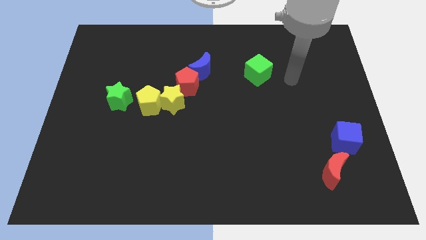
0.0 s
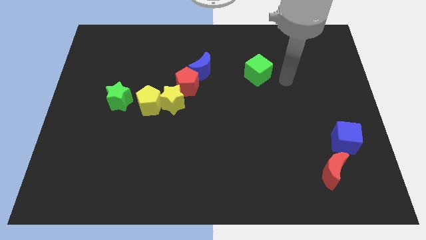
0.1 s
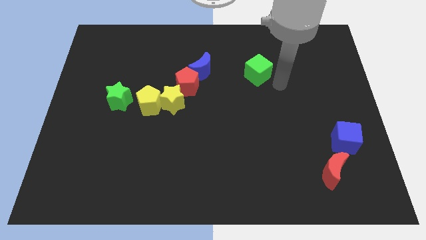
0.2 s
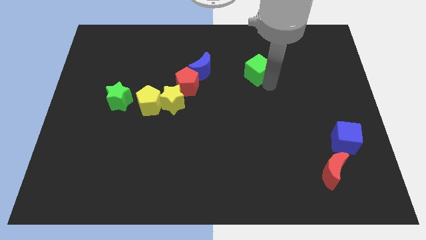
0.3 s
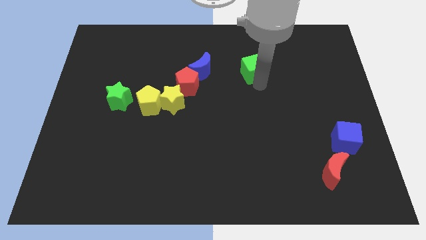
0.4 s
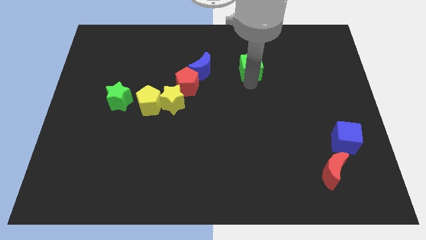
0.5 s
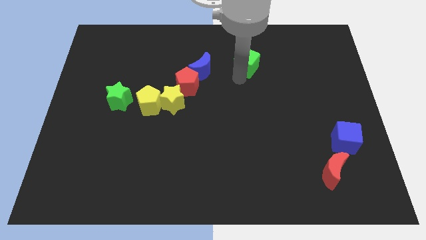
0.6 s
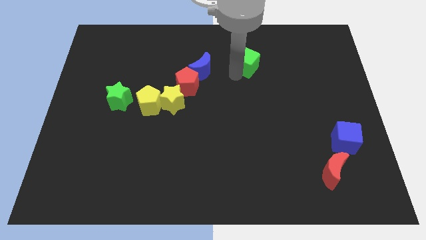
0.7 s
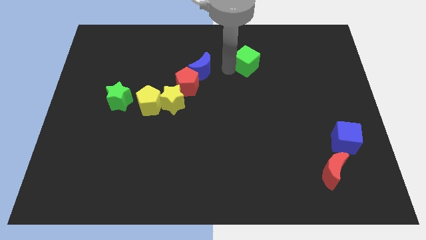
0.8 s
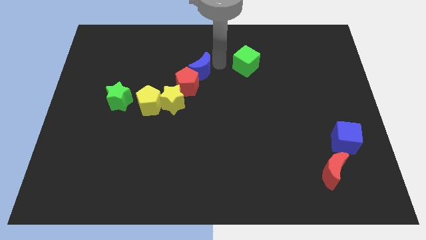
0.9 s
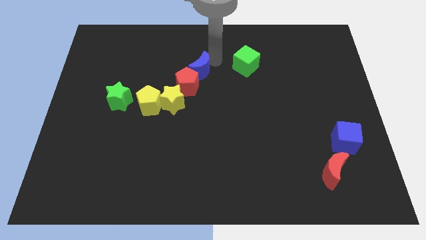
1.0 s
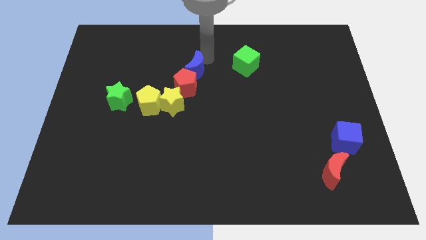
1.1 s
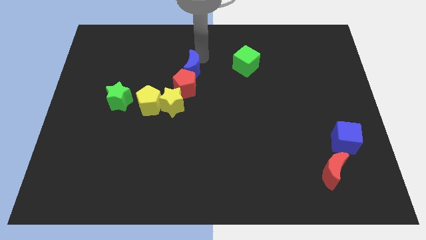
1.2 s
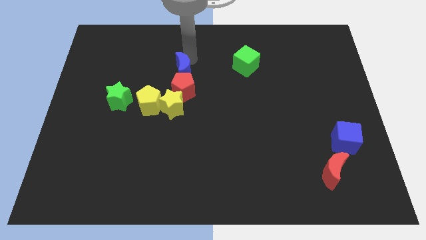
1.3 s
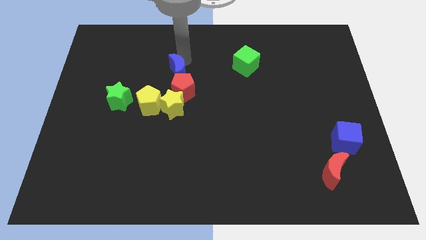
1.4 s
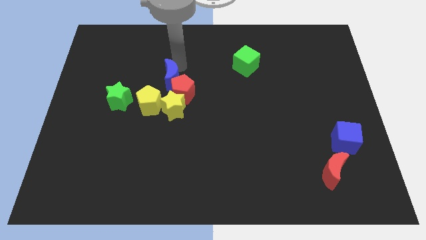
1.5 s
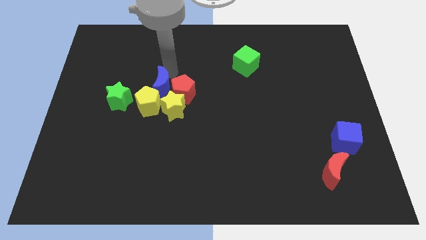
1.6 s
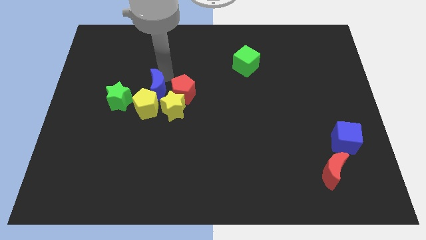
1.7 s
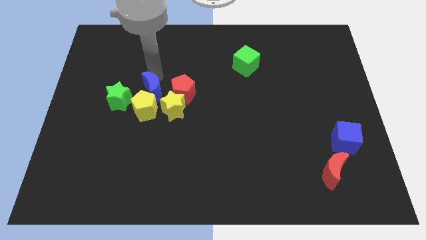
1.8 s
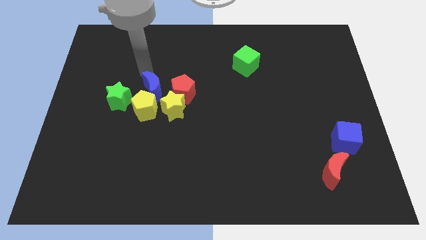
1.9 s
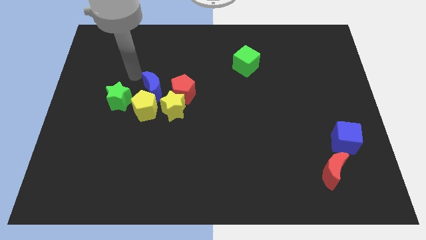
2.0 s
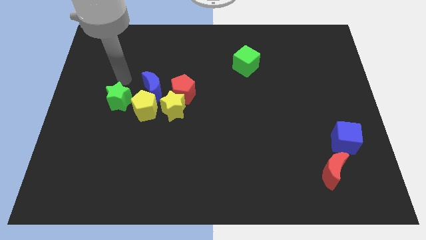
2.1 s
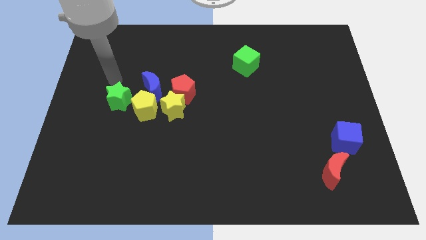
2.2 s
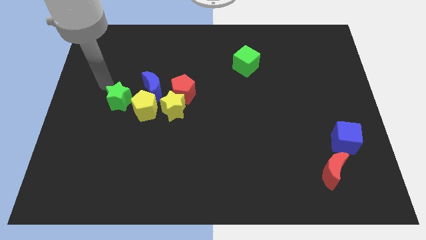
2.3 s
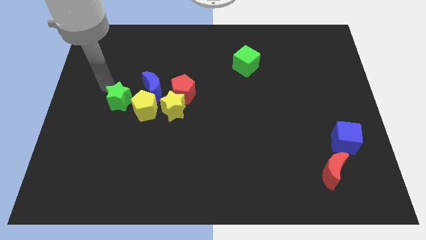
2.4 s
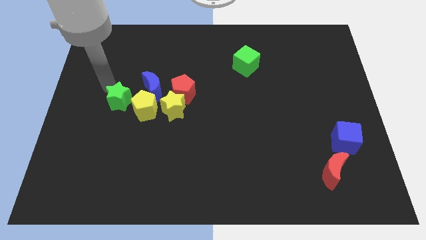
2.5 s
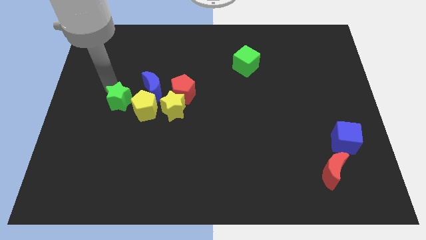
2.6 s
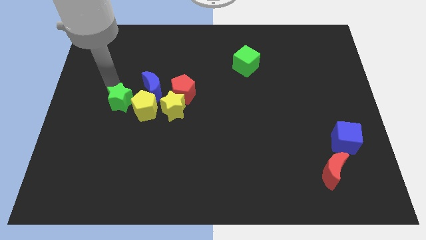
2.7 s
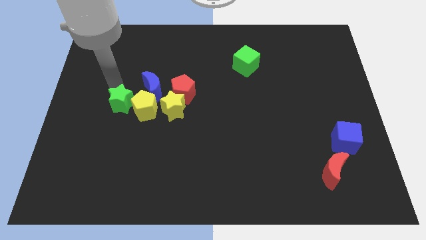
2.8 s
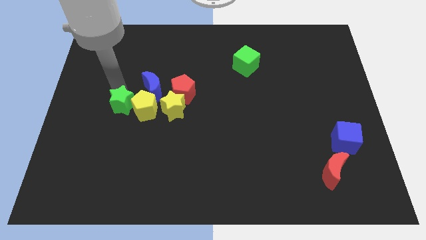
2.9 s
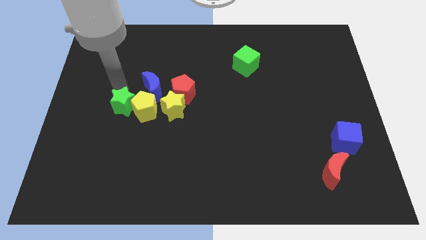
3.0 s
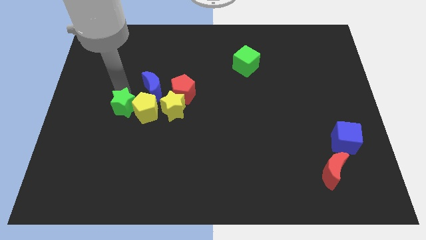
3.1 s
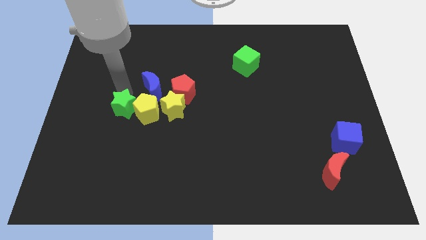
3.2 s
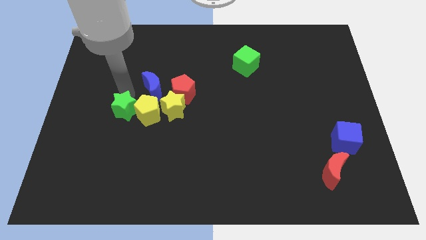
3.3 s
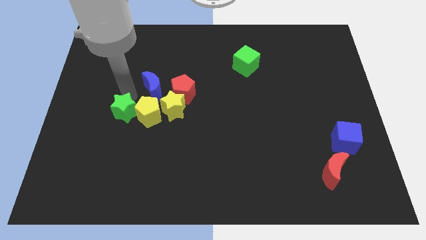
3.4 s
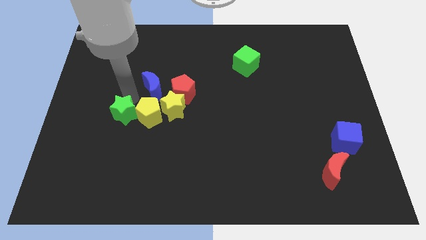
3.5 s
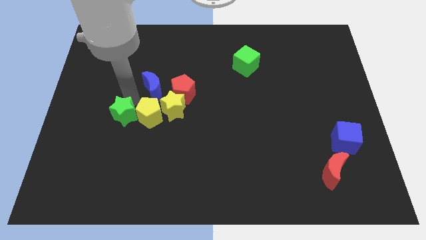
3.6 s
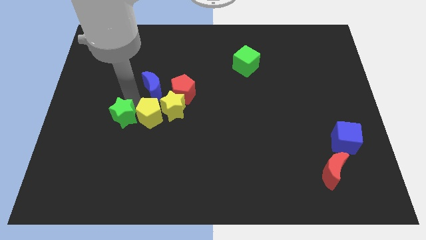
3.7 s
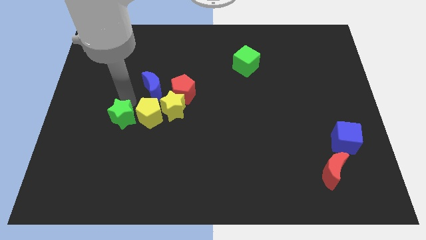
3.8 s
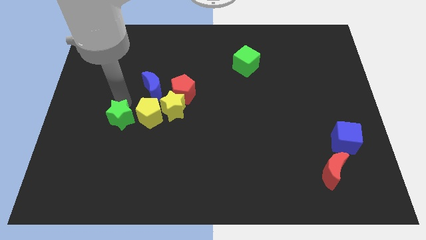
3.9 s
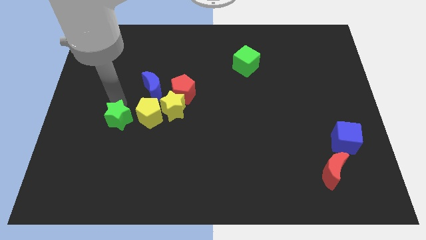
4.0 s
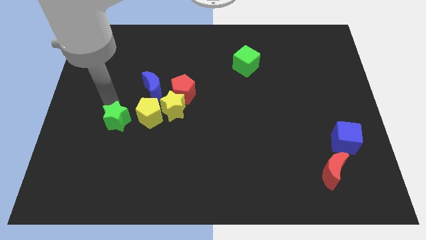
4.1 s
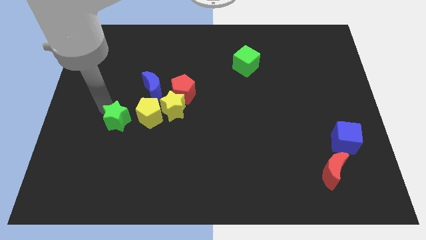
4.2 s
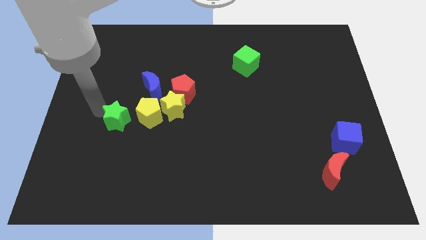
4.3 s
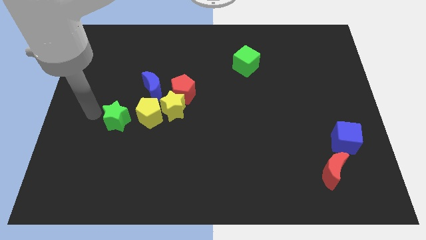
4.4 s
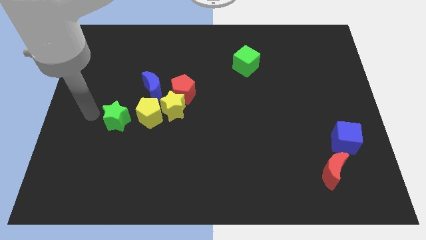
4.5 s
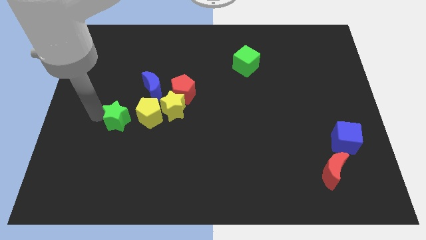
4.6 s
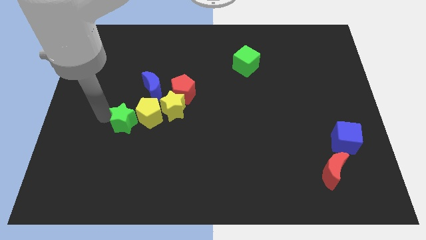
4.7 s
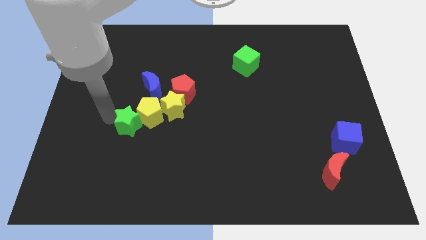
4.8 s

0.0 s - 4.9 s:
slightly slide the green star diagonally downwards and right

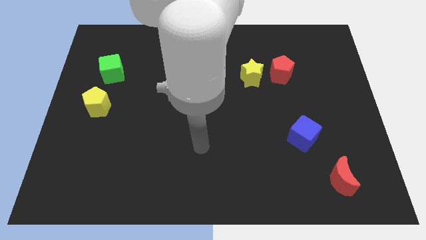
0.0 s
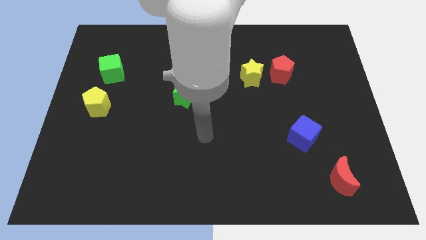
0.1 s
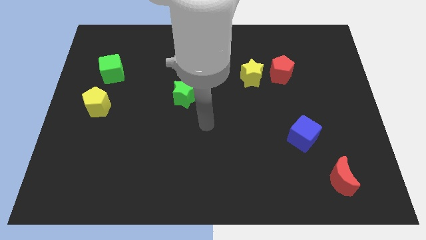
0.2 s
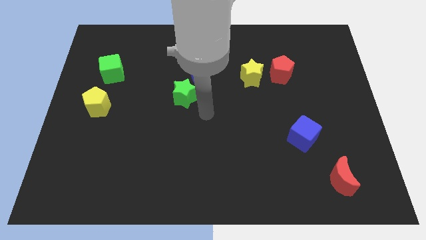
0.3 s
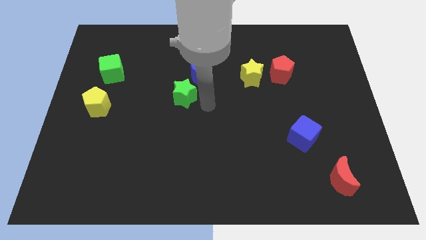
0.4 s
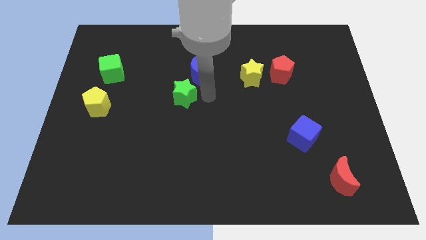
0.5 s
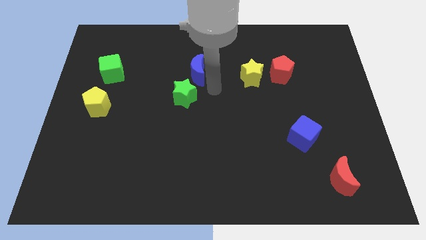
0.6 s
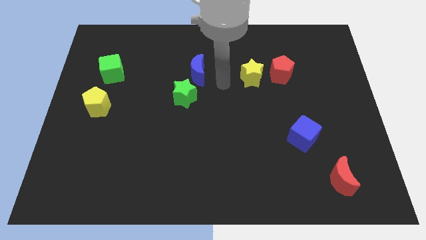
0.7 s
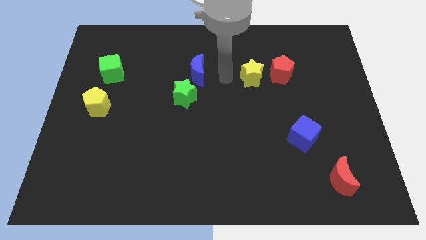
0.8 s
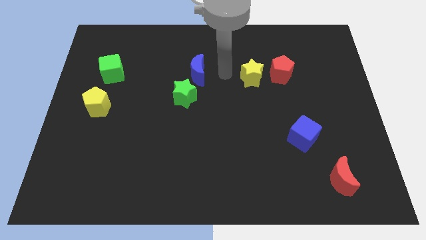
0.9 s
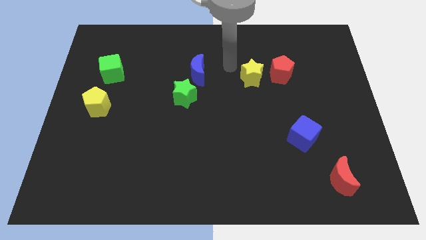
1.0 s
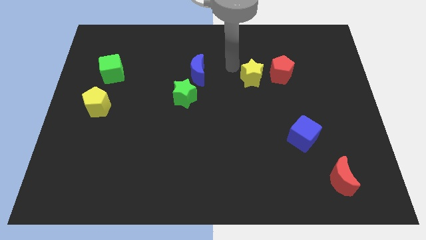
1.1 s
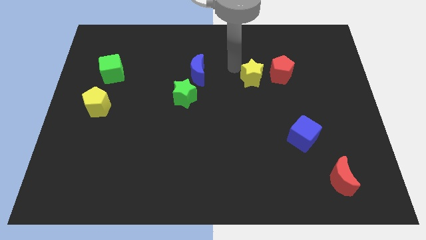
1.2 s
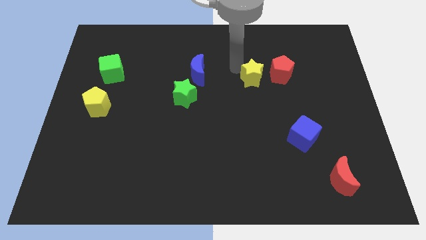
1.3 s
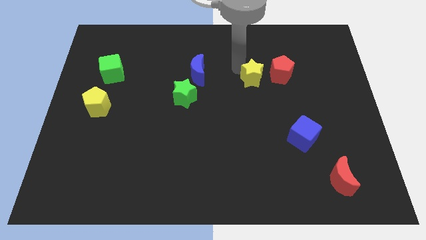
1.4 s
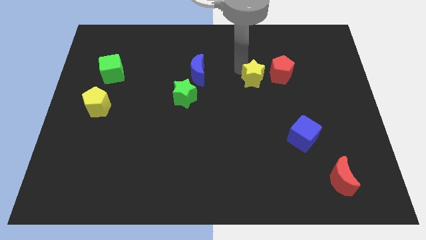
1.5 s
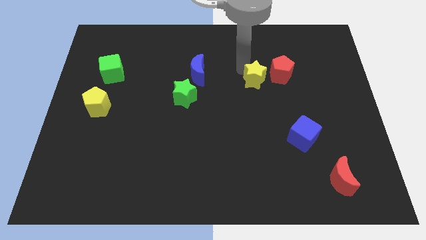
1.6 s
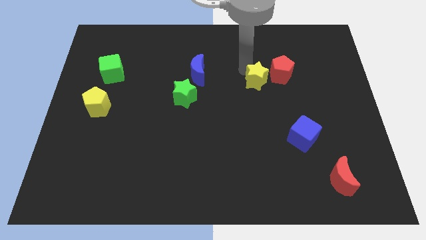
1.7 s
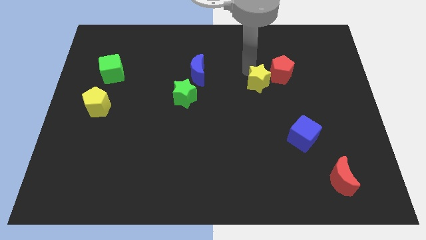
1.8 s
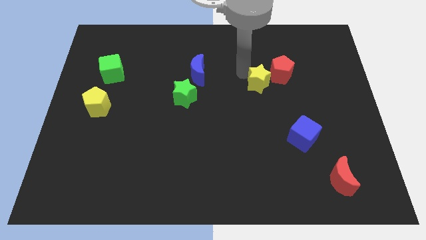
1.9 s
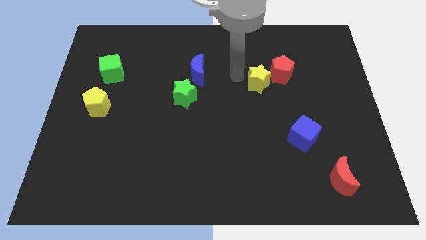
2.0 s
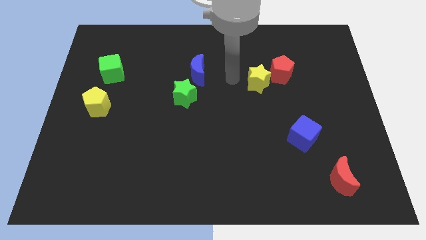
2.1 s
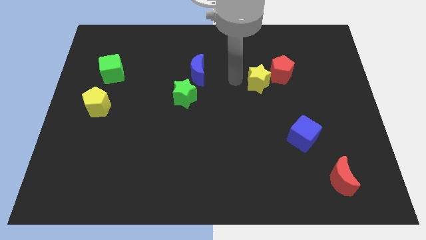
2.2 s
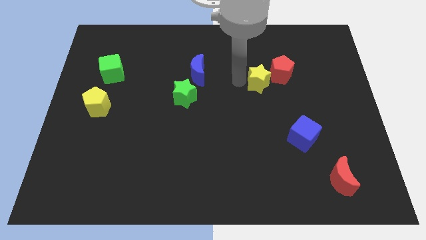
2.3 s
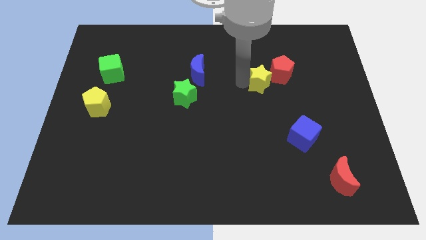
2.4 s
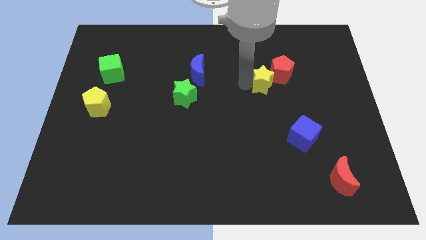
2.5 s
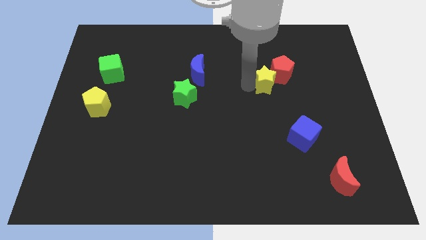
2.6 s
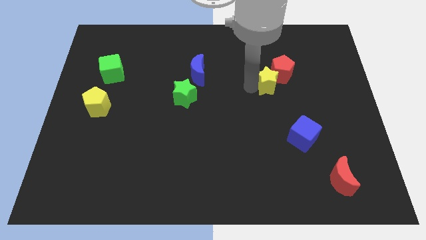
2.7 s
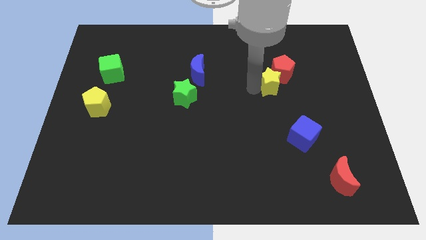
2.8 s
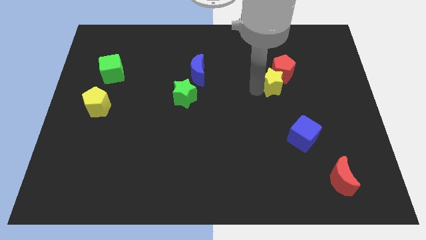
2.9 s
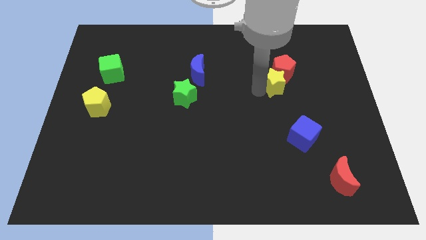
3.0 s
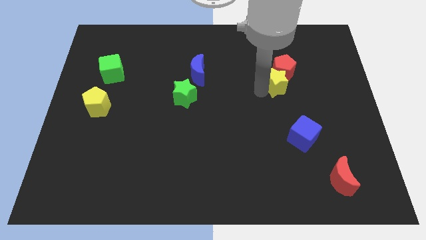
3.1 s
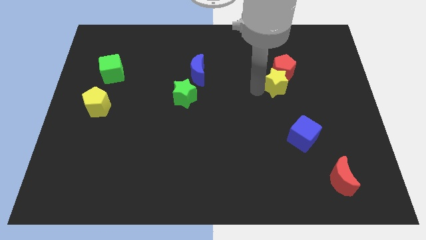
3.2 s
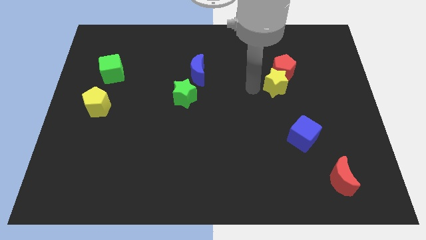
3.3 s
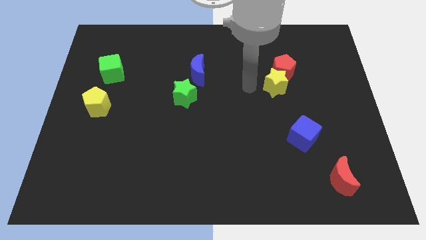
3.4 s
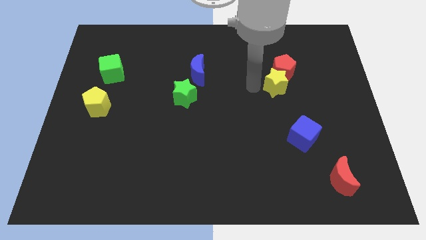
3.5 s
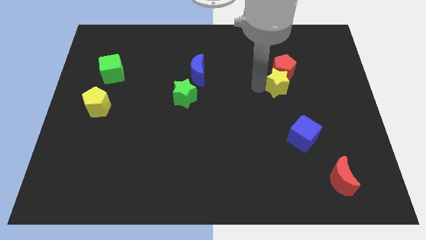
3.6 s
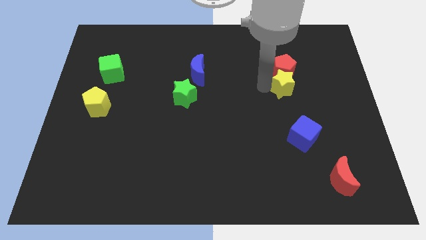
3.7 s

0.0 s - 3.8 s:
slightly slide the yellow star to the right
